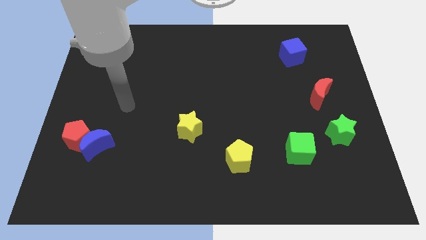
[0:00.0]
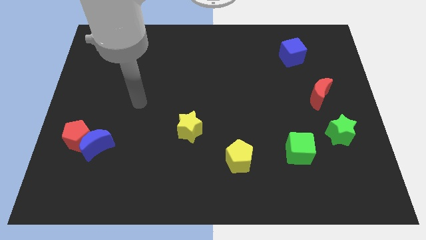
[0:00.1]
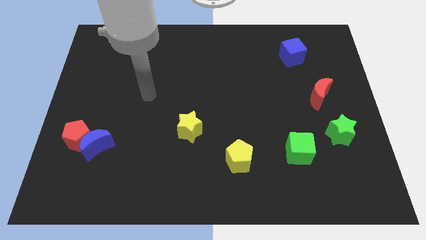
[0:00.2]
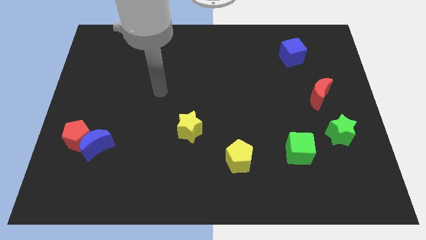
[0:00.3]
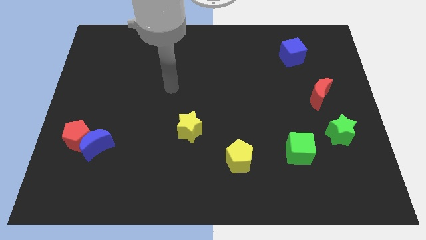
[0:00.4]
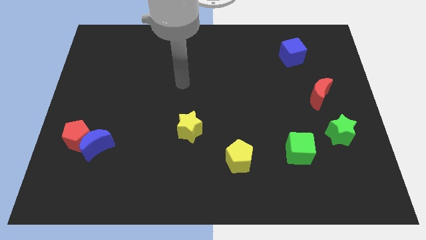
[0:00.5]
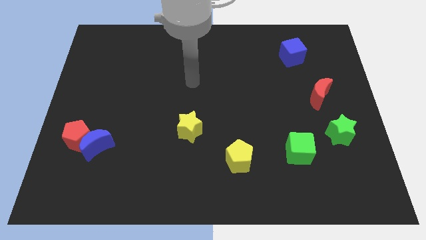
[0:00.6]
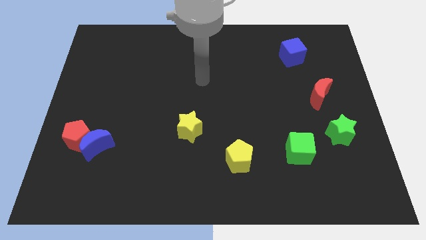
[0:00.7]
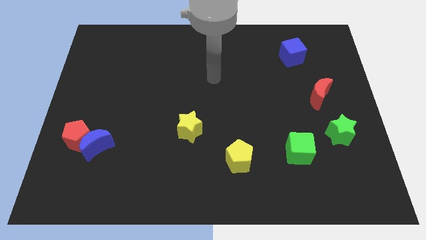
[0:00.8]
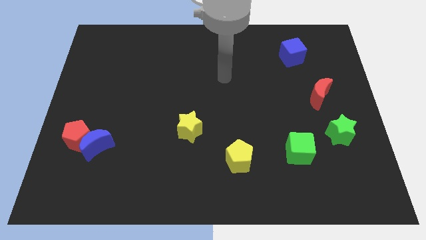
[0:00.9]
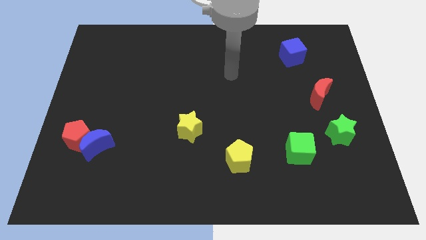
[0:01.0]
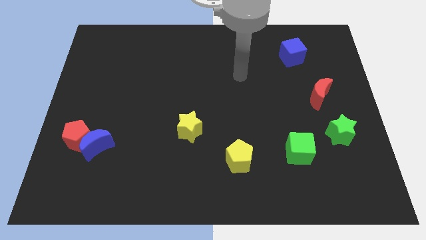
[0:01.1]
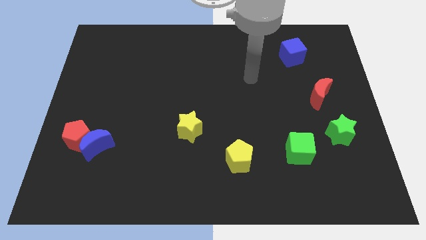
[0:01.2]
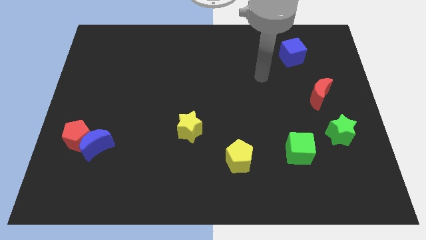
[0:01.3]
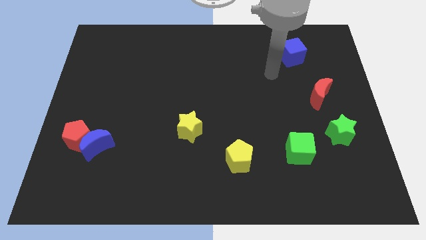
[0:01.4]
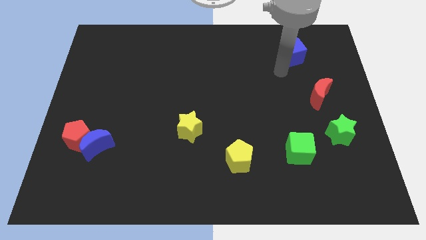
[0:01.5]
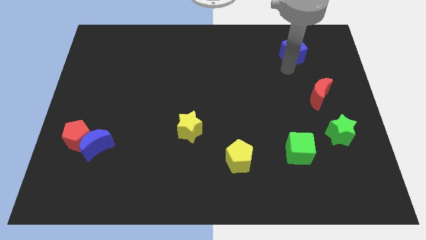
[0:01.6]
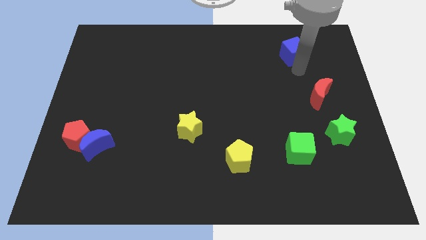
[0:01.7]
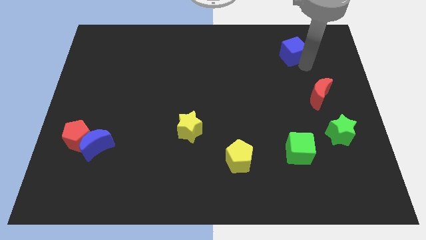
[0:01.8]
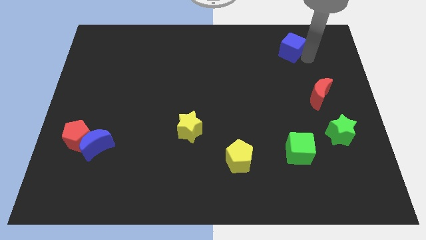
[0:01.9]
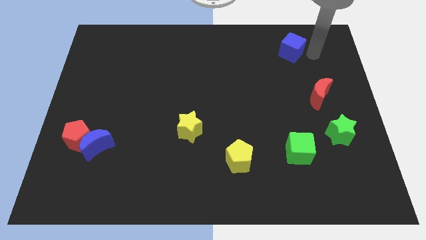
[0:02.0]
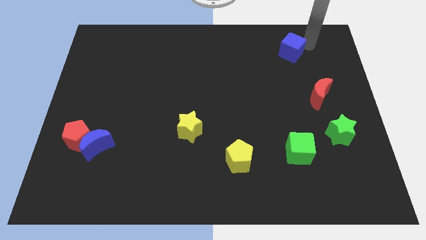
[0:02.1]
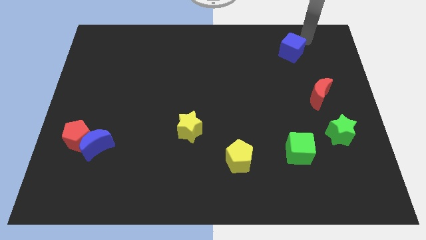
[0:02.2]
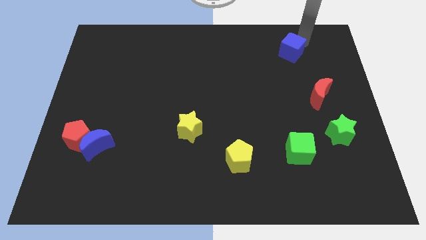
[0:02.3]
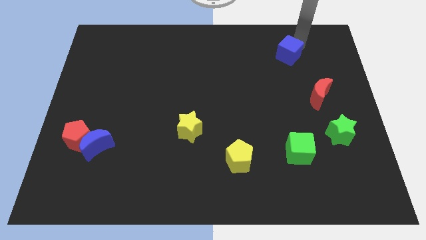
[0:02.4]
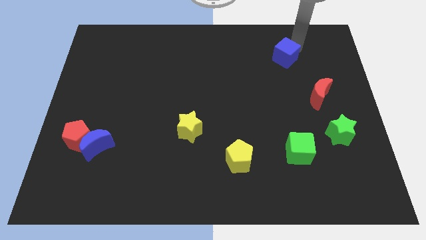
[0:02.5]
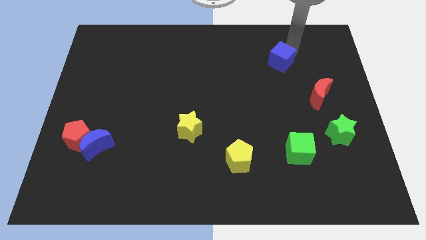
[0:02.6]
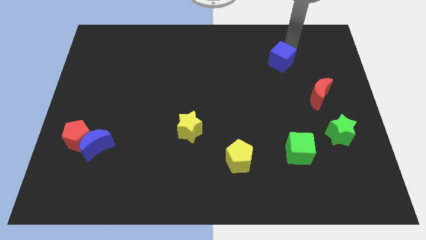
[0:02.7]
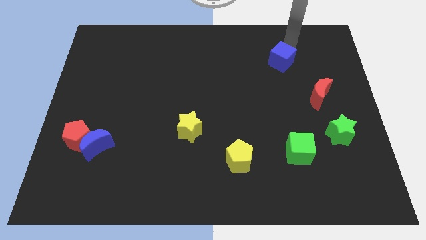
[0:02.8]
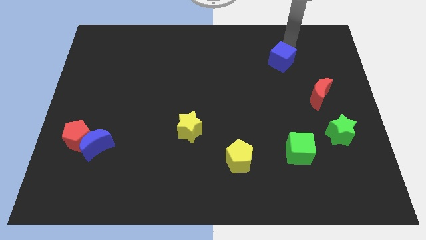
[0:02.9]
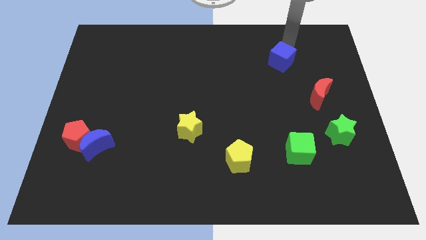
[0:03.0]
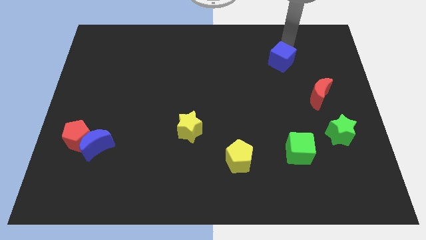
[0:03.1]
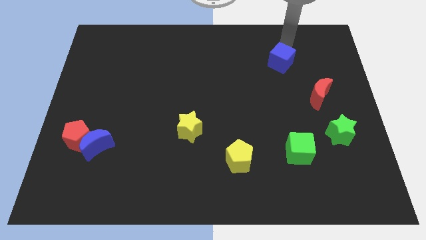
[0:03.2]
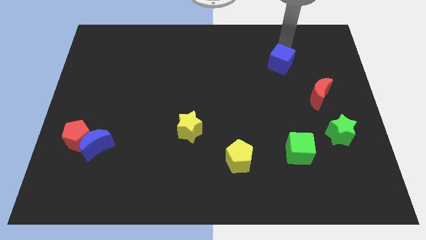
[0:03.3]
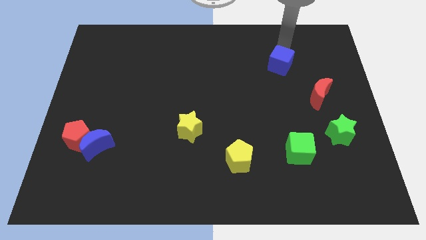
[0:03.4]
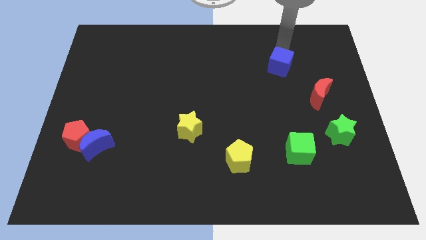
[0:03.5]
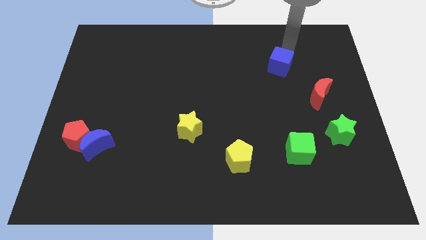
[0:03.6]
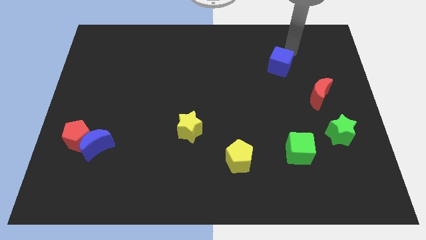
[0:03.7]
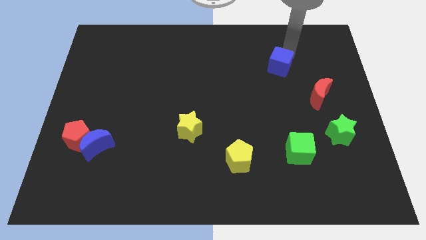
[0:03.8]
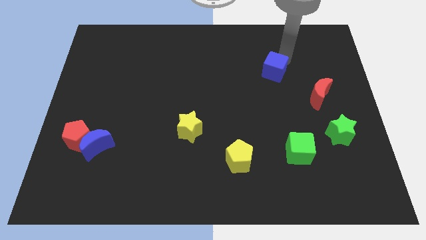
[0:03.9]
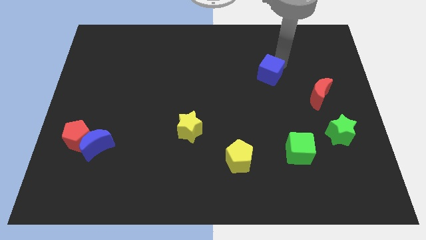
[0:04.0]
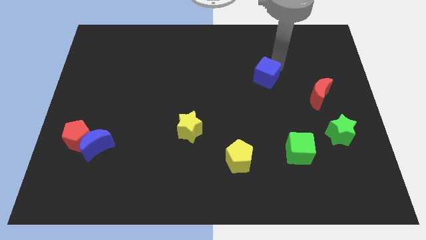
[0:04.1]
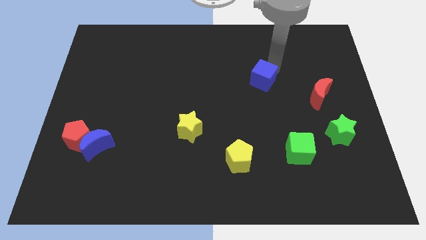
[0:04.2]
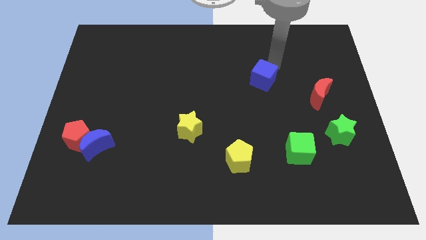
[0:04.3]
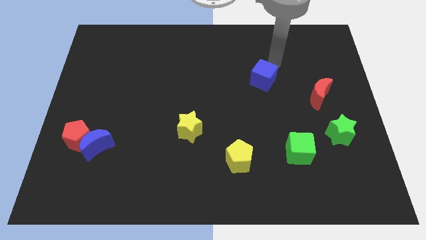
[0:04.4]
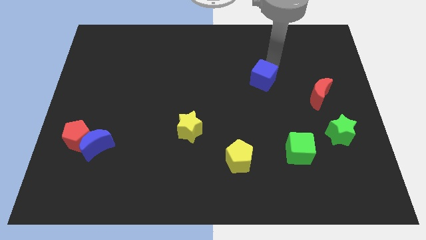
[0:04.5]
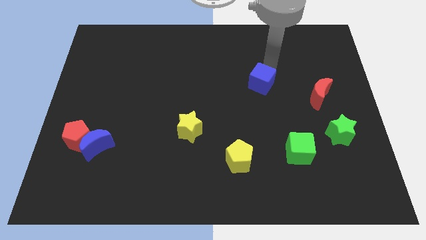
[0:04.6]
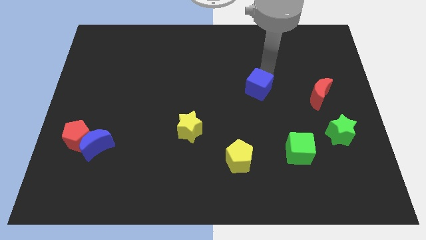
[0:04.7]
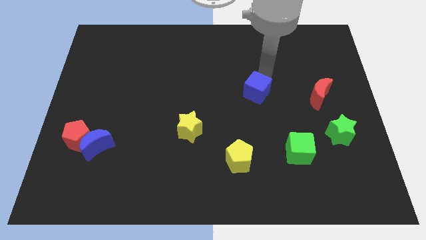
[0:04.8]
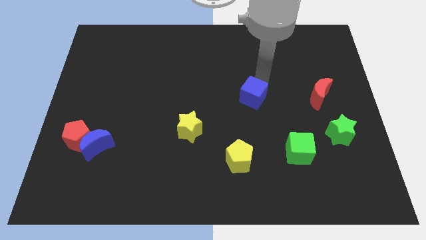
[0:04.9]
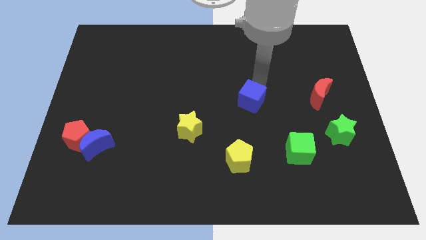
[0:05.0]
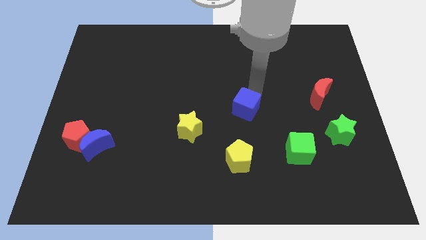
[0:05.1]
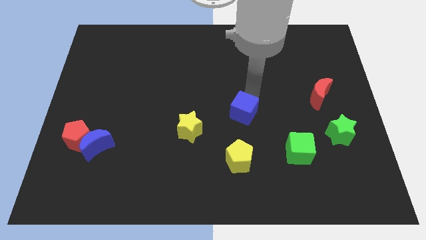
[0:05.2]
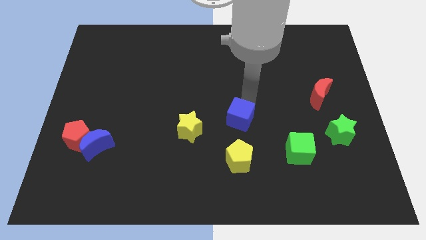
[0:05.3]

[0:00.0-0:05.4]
move the blue cube to the right side of the yellow star

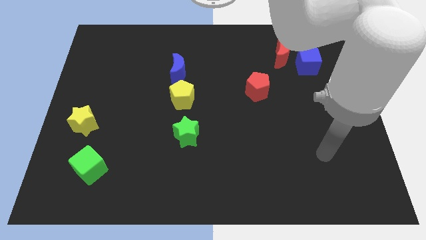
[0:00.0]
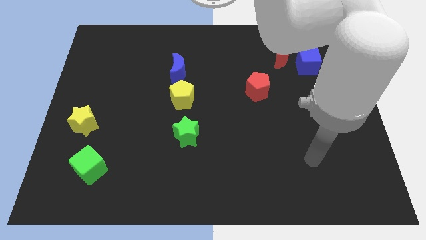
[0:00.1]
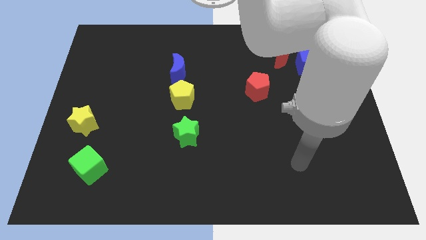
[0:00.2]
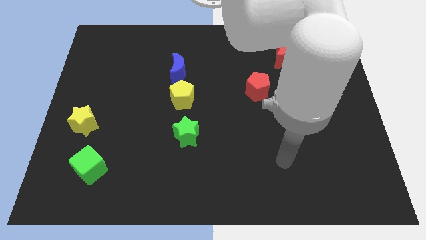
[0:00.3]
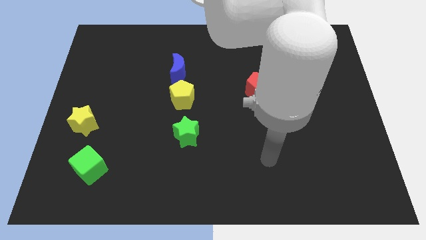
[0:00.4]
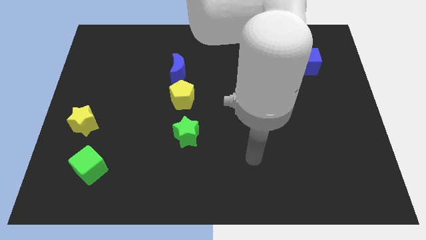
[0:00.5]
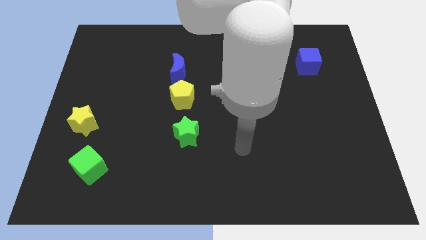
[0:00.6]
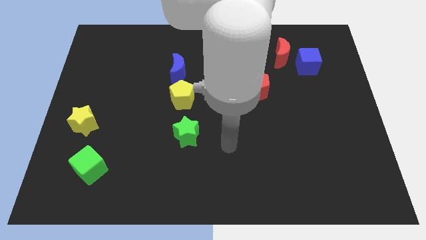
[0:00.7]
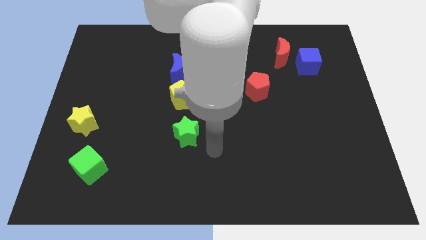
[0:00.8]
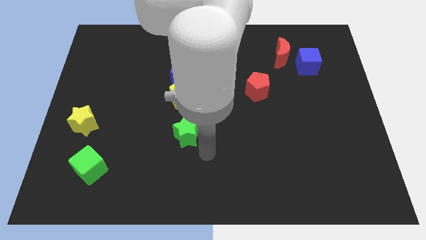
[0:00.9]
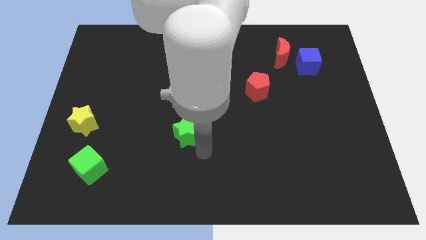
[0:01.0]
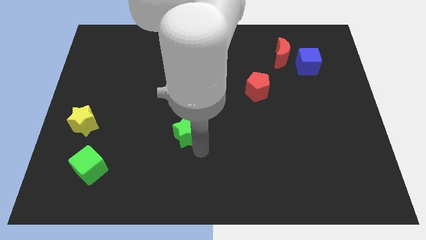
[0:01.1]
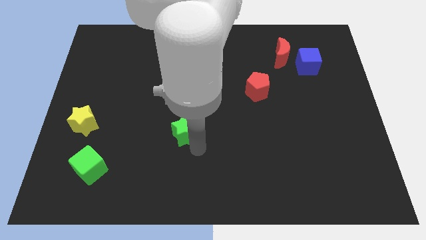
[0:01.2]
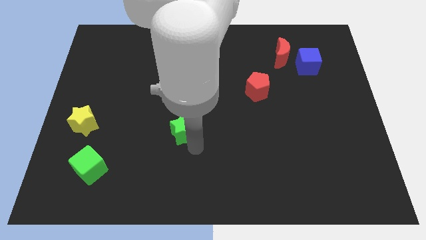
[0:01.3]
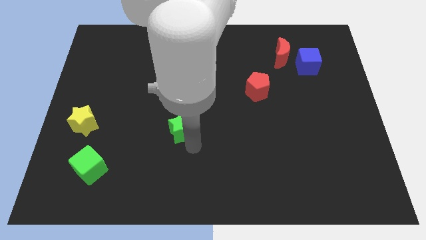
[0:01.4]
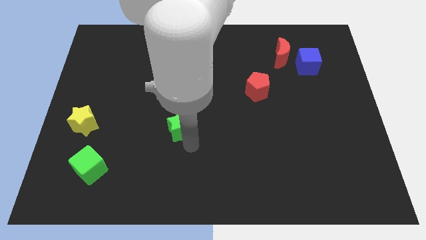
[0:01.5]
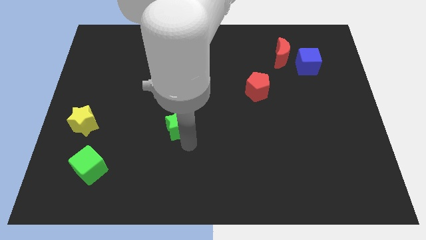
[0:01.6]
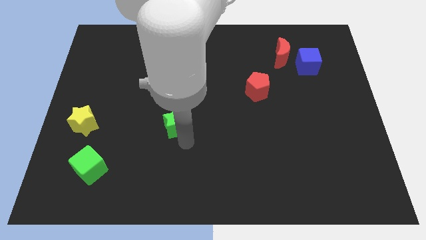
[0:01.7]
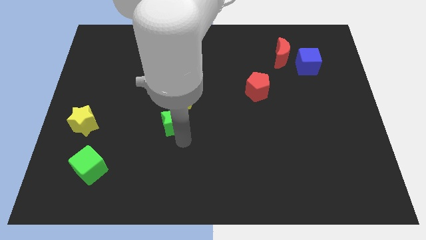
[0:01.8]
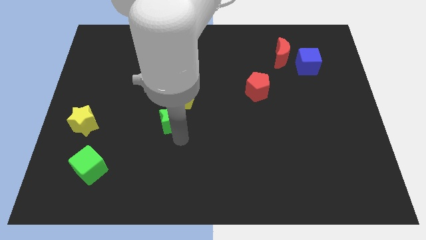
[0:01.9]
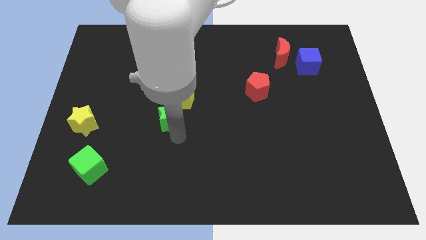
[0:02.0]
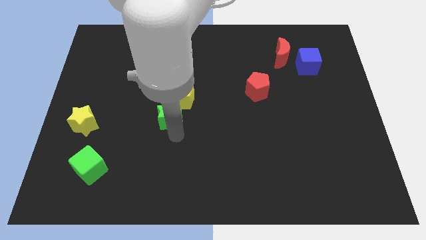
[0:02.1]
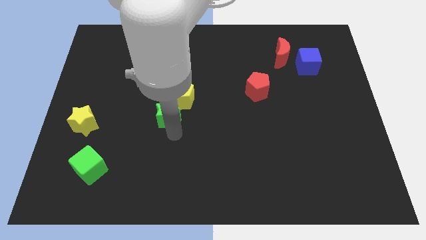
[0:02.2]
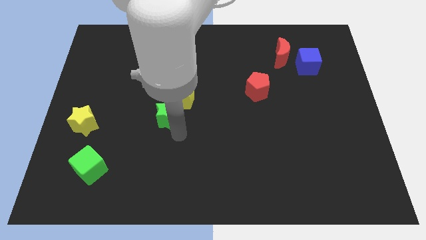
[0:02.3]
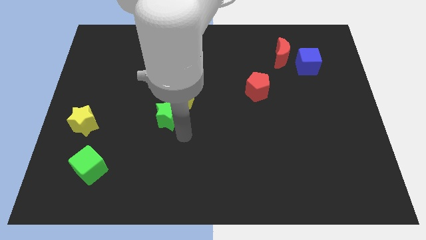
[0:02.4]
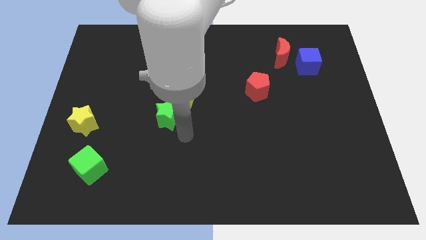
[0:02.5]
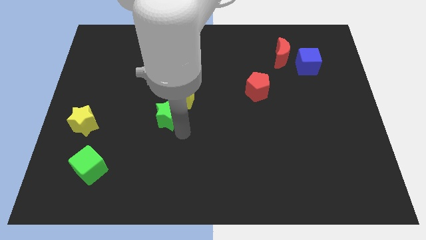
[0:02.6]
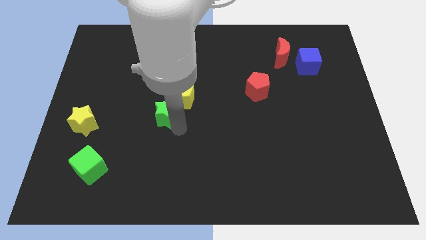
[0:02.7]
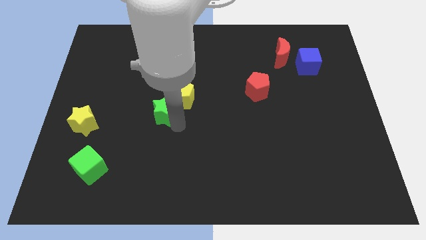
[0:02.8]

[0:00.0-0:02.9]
push the green star just left of the yellow pentagon
